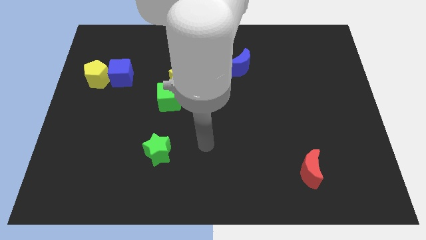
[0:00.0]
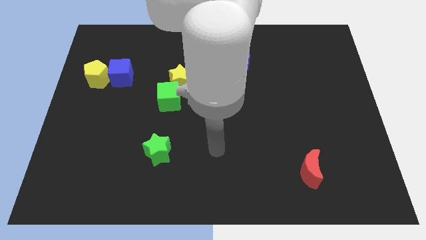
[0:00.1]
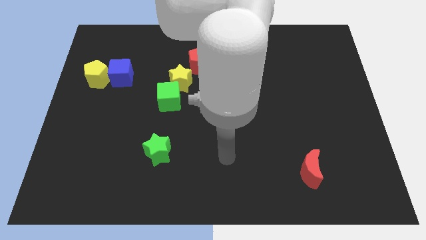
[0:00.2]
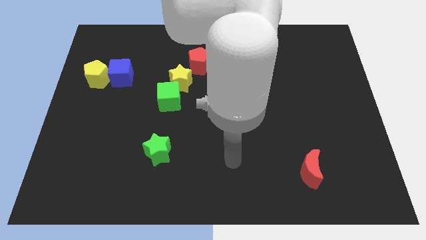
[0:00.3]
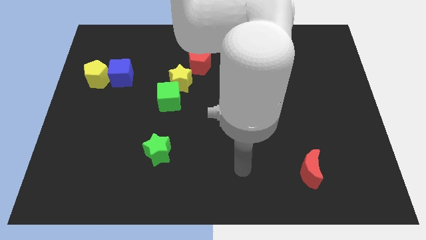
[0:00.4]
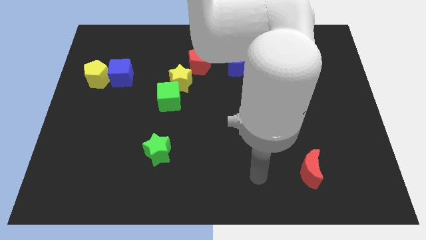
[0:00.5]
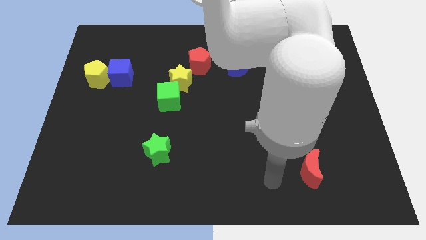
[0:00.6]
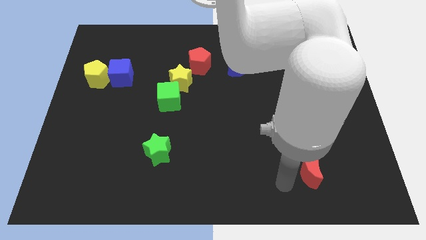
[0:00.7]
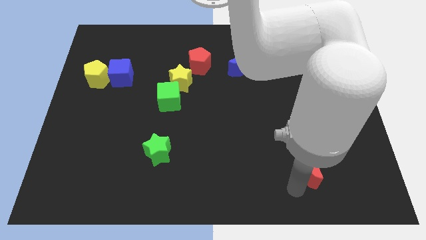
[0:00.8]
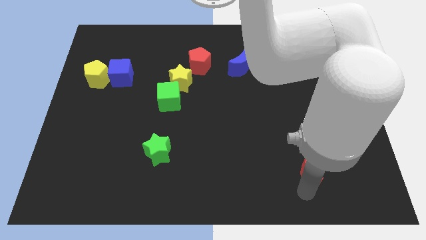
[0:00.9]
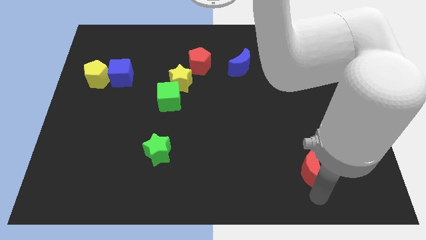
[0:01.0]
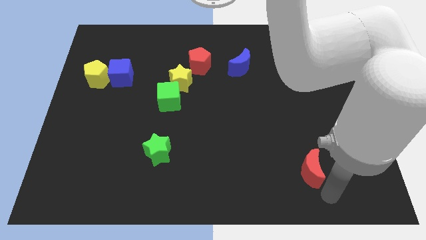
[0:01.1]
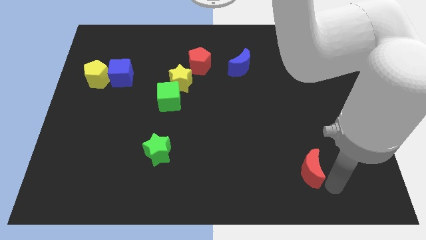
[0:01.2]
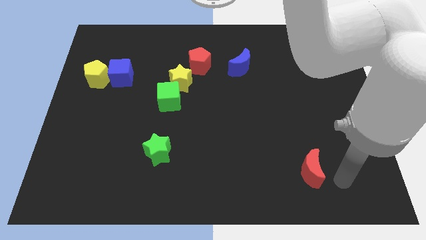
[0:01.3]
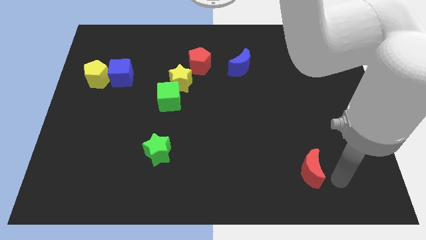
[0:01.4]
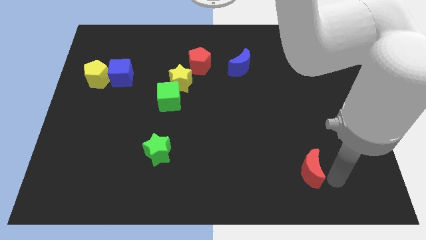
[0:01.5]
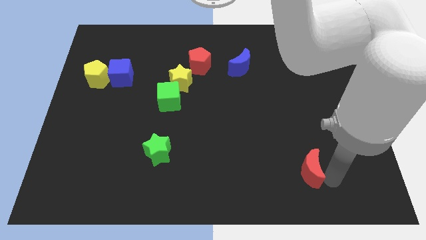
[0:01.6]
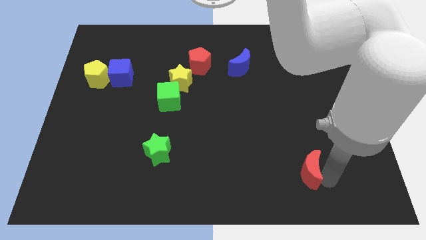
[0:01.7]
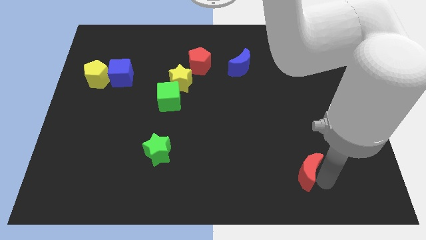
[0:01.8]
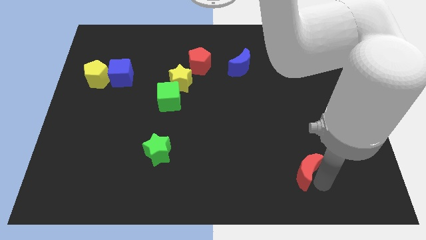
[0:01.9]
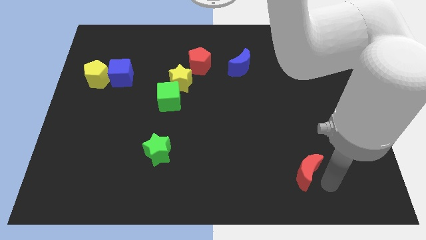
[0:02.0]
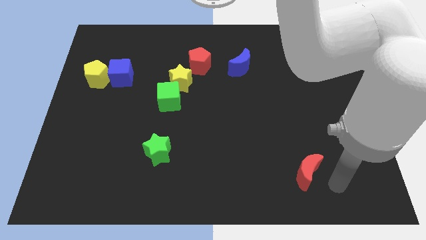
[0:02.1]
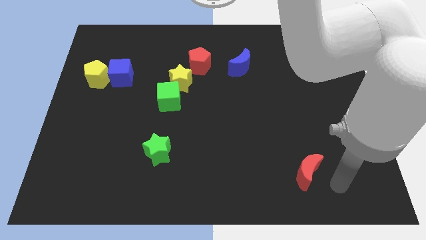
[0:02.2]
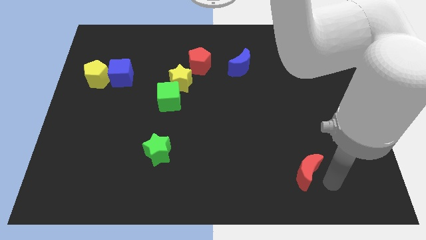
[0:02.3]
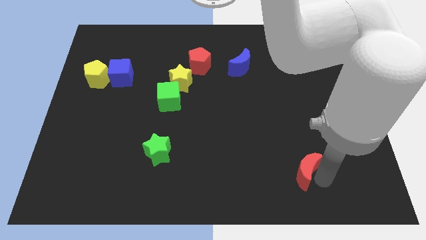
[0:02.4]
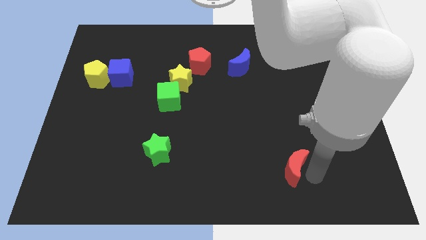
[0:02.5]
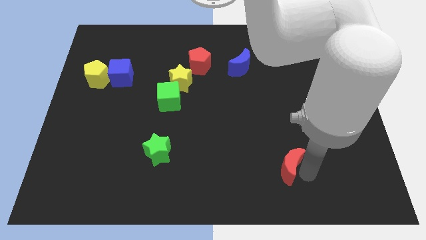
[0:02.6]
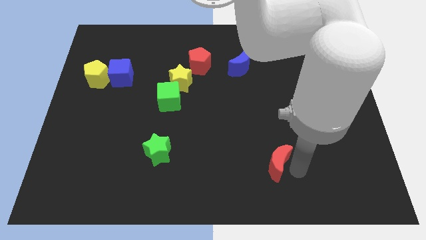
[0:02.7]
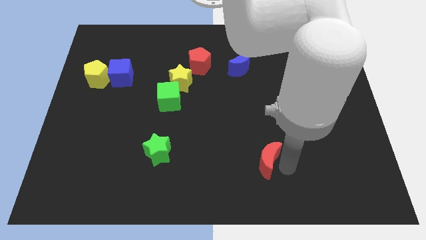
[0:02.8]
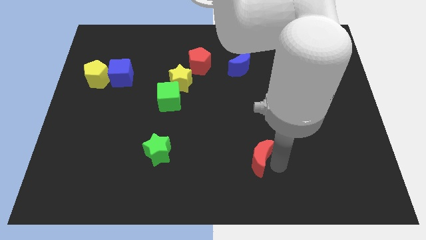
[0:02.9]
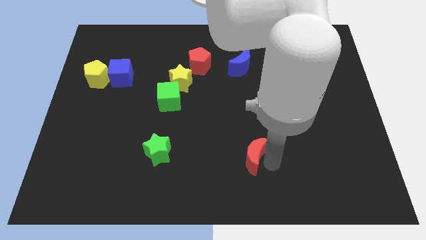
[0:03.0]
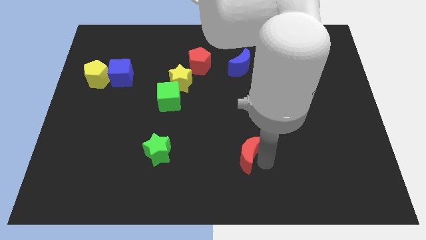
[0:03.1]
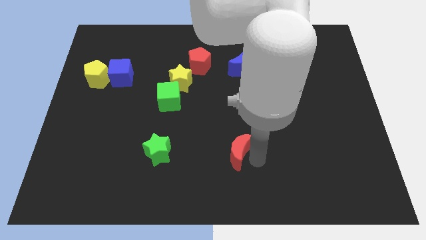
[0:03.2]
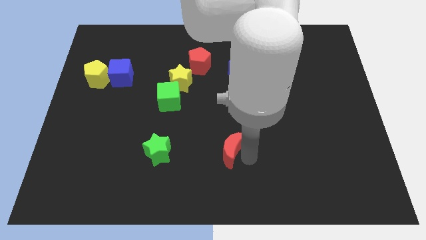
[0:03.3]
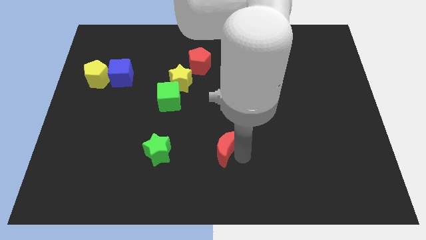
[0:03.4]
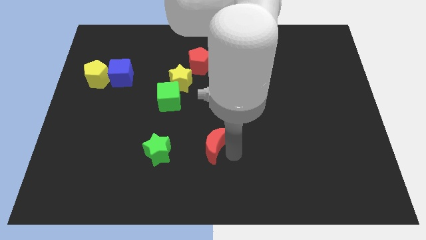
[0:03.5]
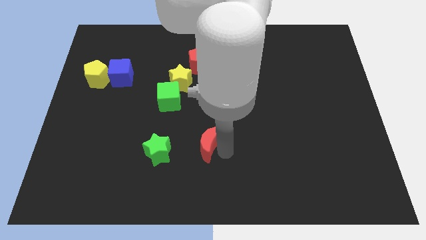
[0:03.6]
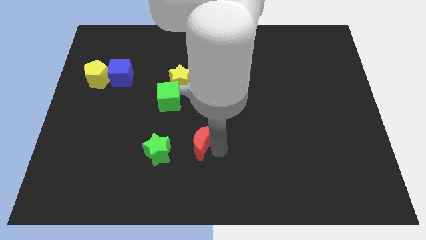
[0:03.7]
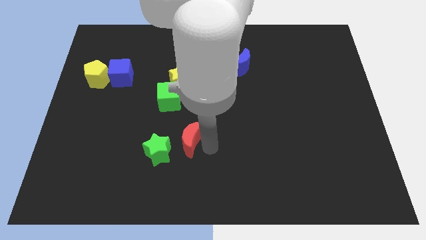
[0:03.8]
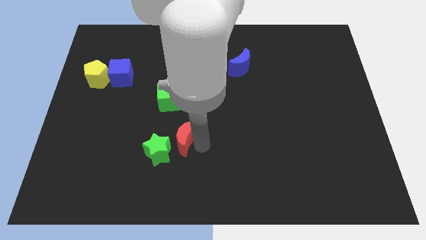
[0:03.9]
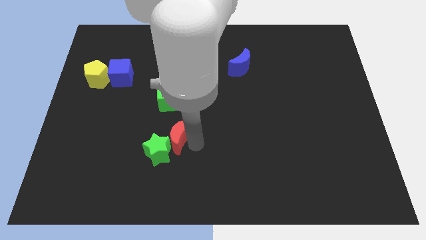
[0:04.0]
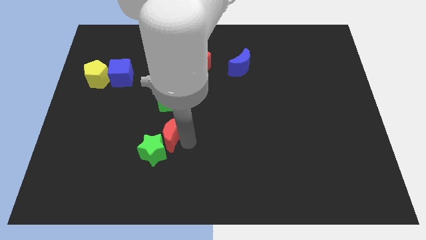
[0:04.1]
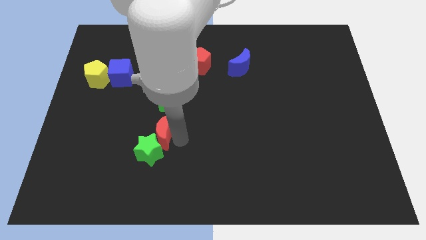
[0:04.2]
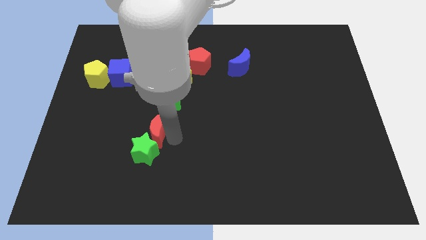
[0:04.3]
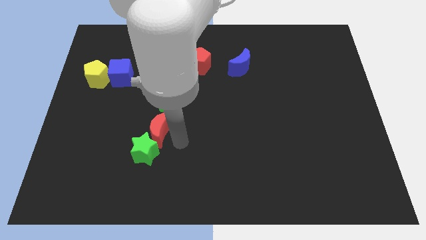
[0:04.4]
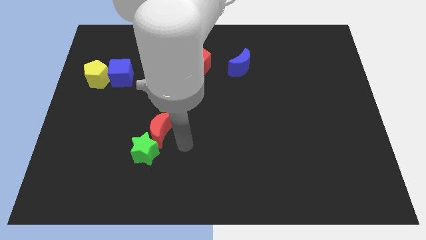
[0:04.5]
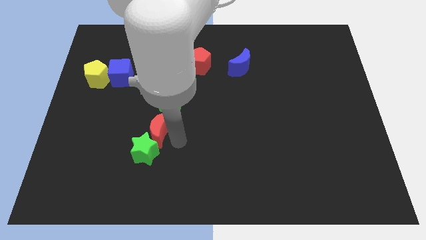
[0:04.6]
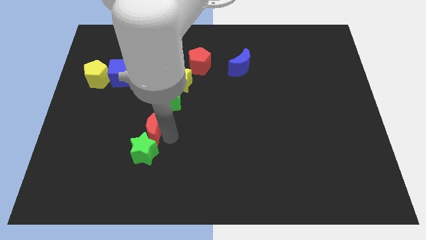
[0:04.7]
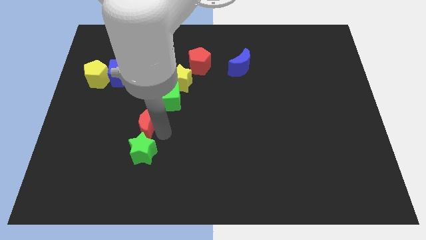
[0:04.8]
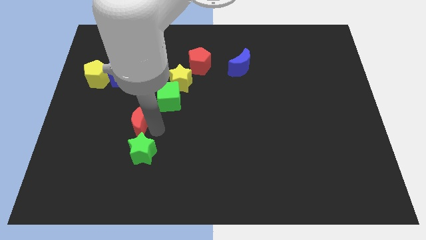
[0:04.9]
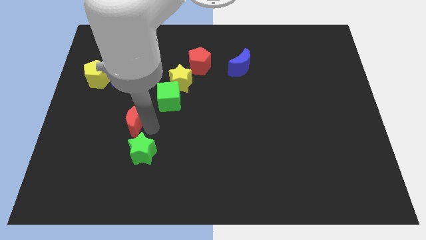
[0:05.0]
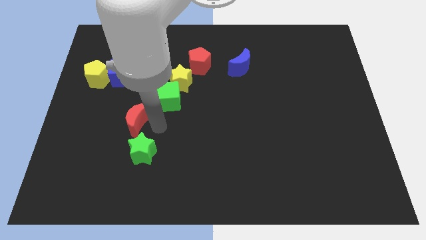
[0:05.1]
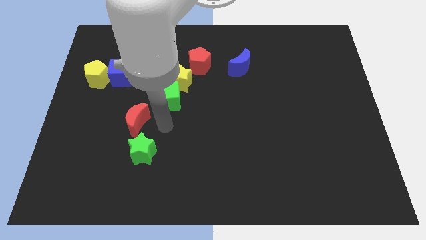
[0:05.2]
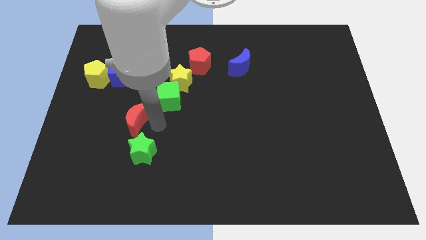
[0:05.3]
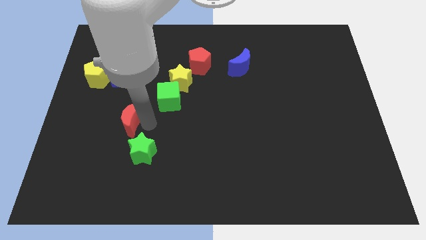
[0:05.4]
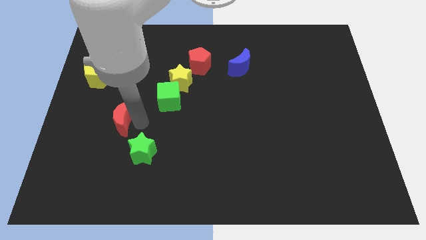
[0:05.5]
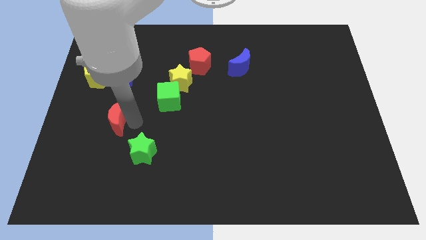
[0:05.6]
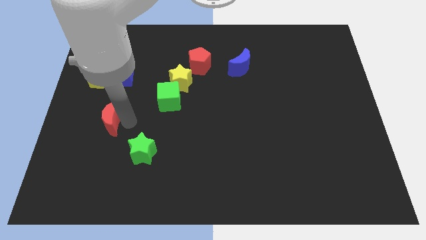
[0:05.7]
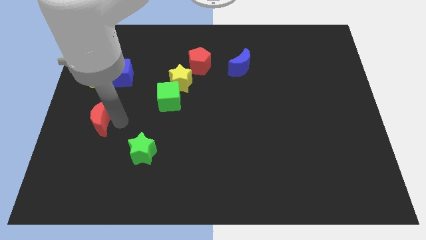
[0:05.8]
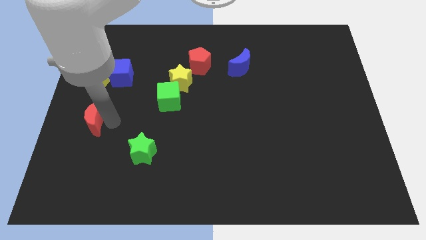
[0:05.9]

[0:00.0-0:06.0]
push the red moon to the left side of the board

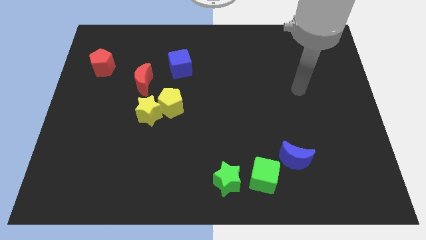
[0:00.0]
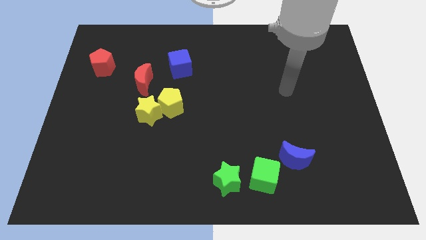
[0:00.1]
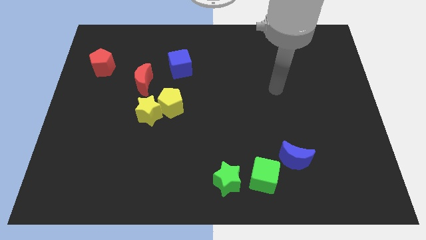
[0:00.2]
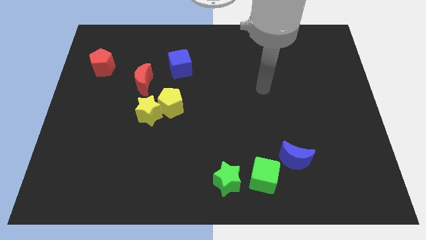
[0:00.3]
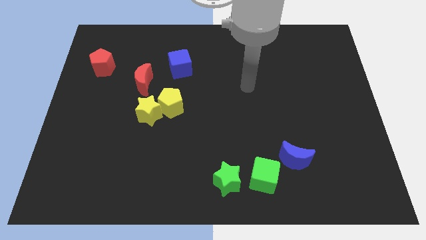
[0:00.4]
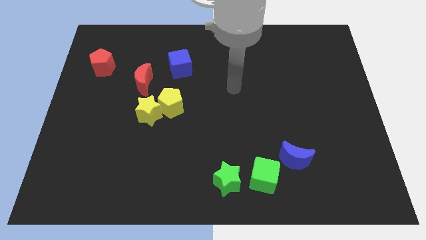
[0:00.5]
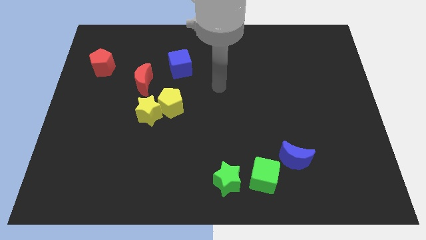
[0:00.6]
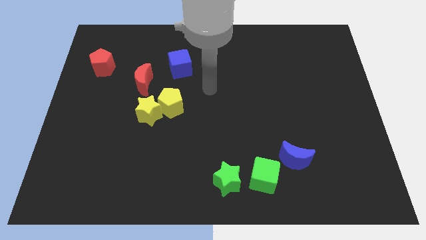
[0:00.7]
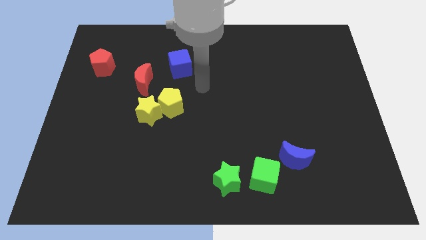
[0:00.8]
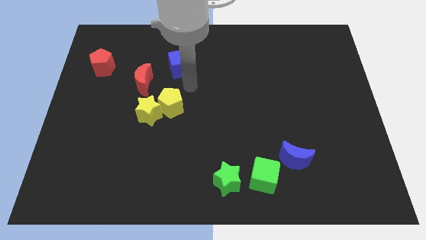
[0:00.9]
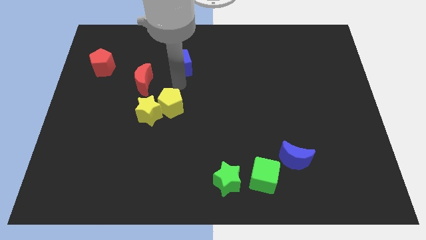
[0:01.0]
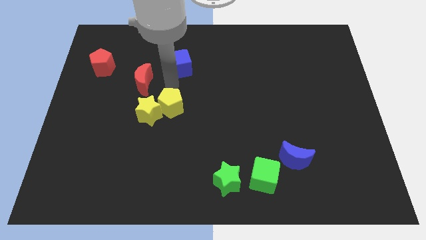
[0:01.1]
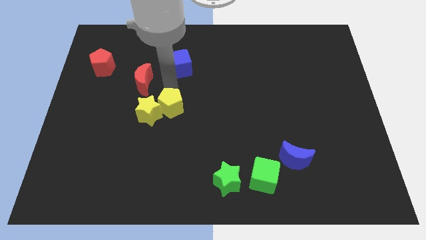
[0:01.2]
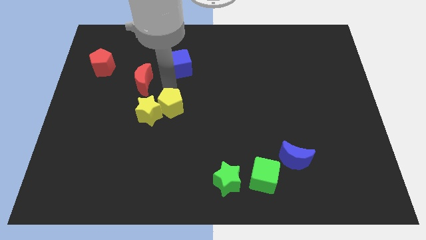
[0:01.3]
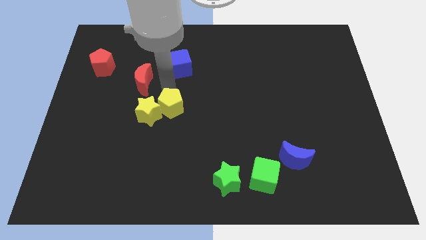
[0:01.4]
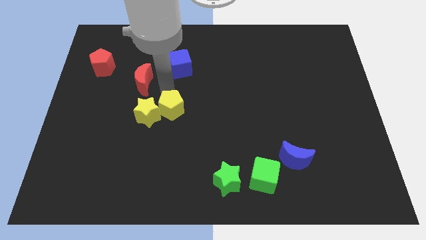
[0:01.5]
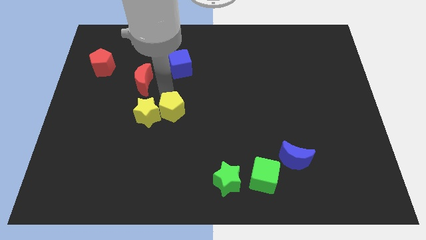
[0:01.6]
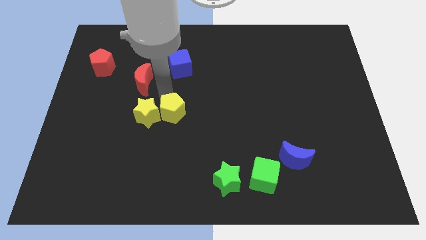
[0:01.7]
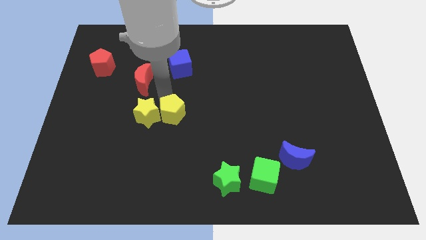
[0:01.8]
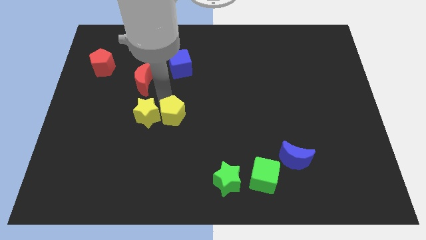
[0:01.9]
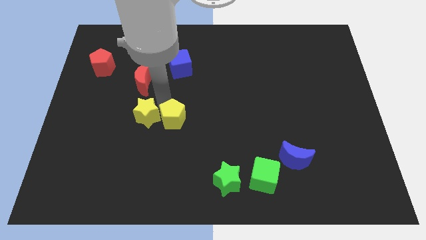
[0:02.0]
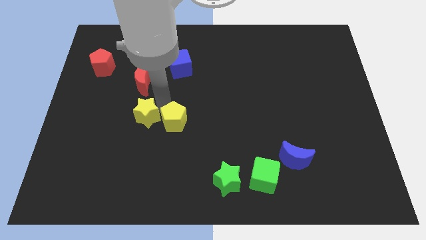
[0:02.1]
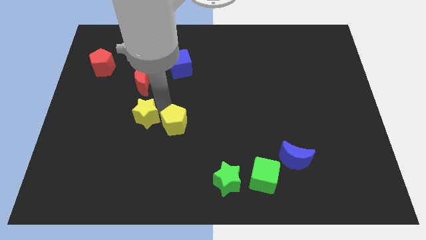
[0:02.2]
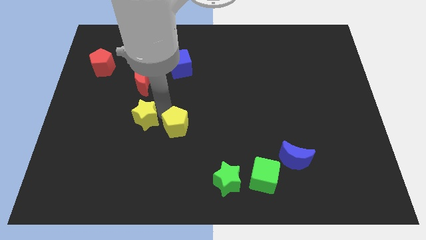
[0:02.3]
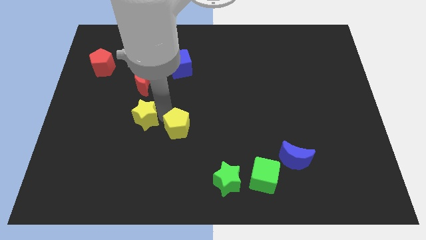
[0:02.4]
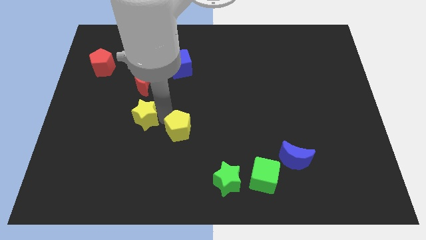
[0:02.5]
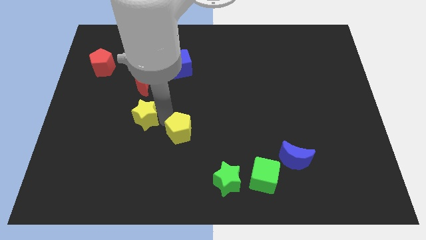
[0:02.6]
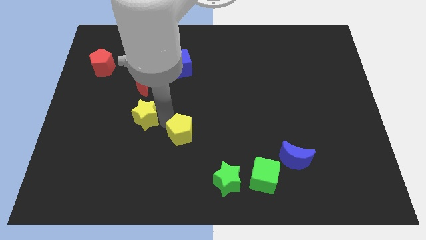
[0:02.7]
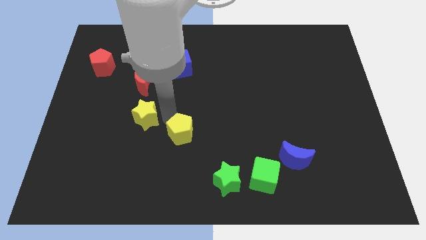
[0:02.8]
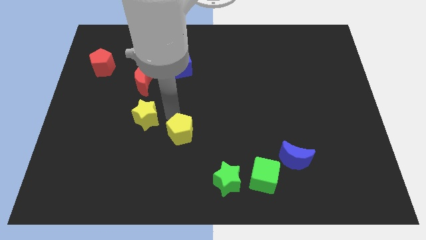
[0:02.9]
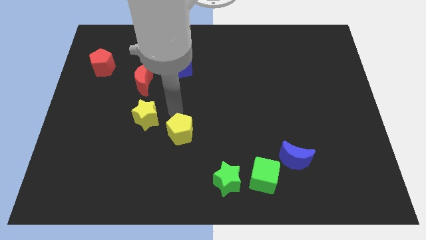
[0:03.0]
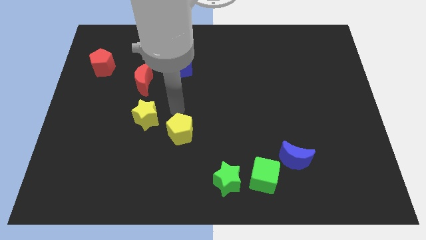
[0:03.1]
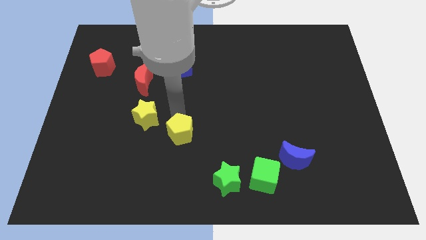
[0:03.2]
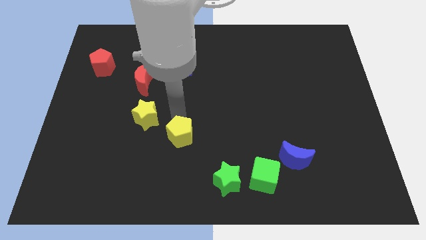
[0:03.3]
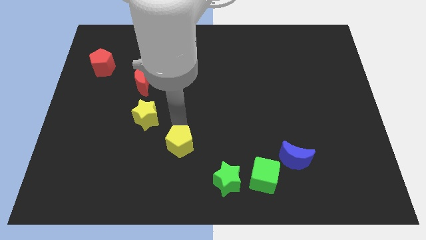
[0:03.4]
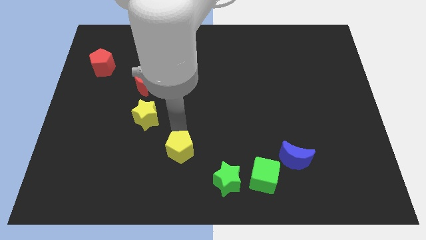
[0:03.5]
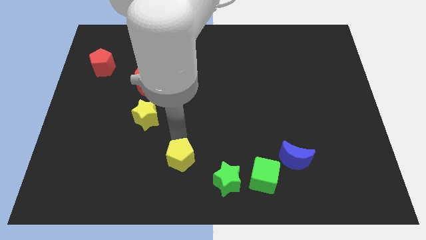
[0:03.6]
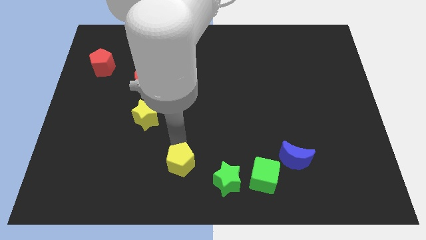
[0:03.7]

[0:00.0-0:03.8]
push the yellow pentagon to the bottom side
